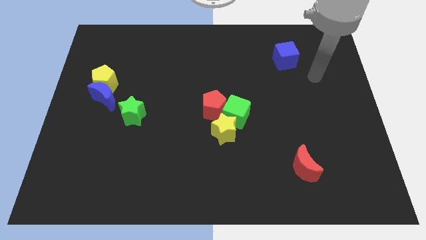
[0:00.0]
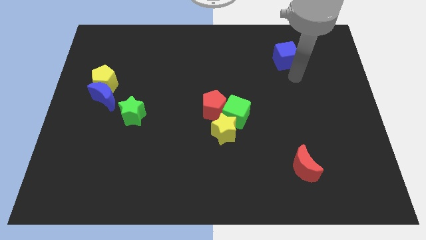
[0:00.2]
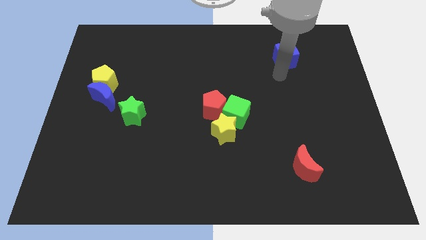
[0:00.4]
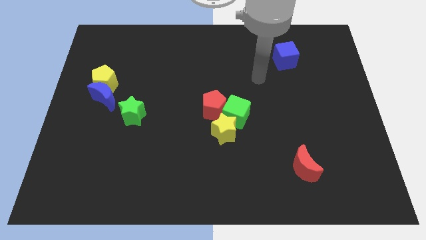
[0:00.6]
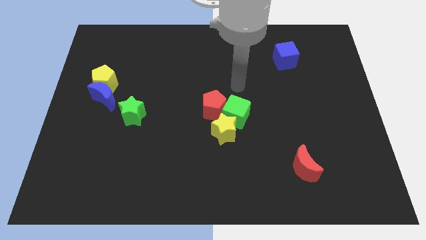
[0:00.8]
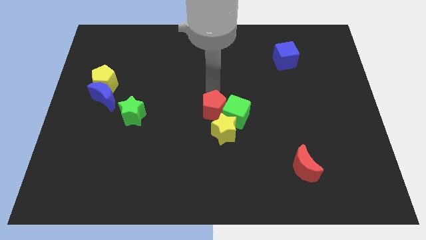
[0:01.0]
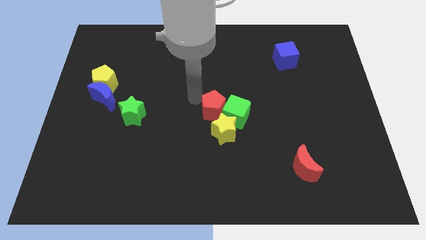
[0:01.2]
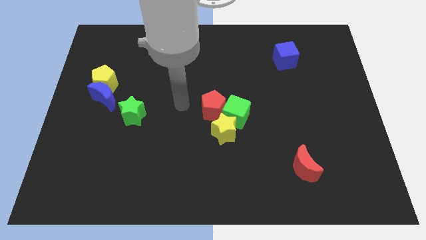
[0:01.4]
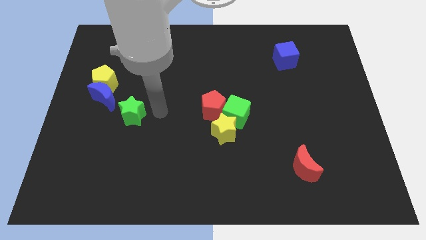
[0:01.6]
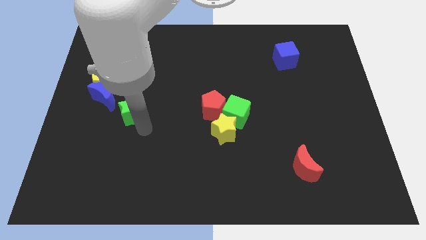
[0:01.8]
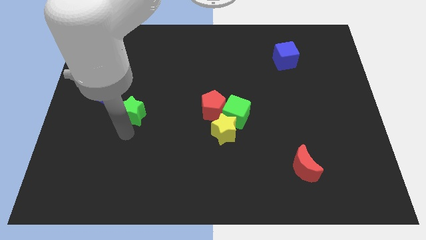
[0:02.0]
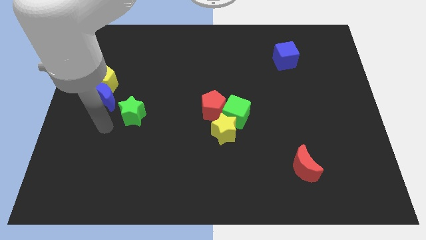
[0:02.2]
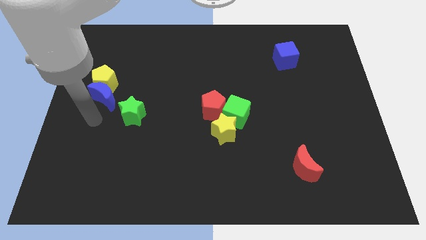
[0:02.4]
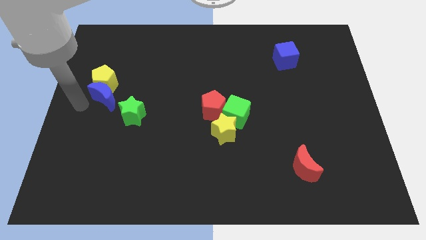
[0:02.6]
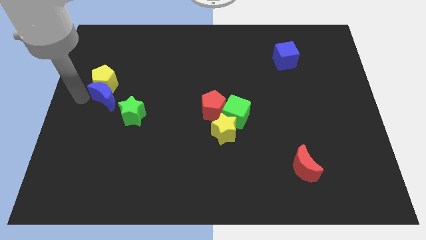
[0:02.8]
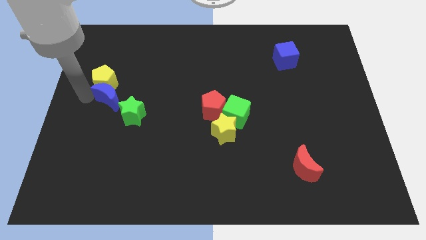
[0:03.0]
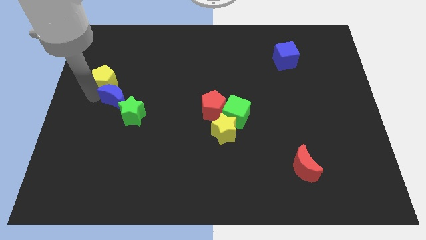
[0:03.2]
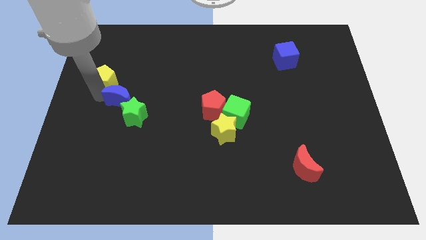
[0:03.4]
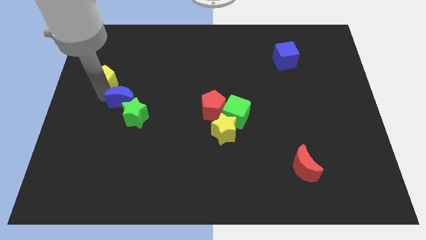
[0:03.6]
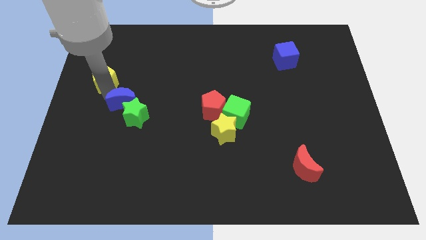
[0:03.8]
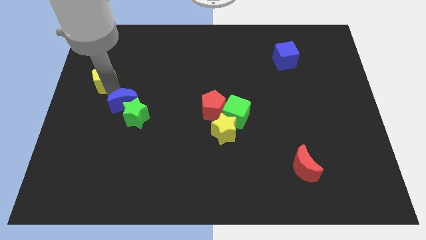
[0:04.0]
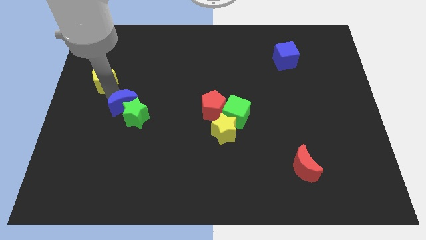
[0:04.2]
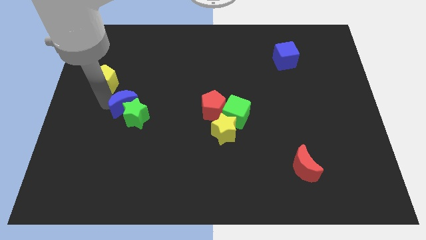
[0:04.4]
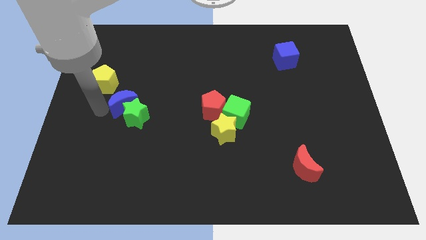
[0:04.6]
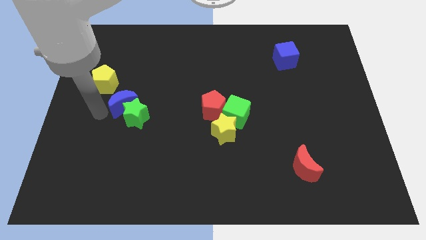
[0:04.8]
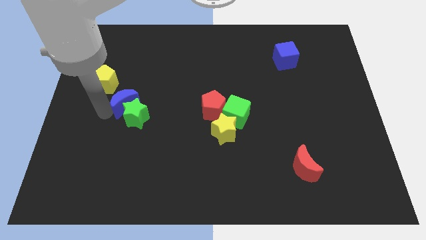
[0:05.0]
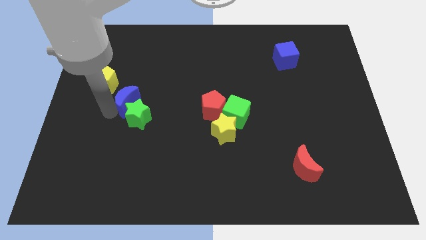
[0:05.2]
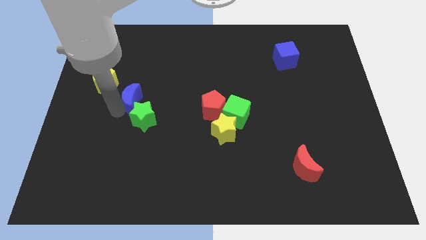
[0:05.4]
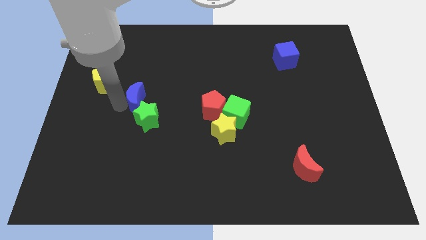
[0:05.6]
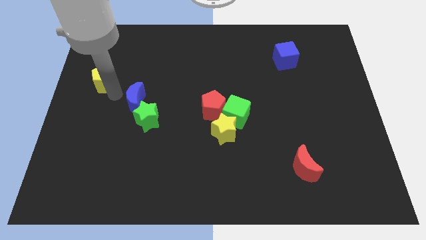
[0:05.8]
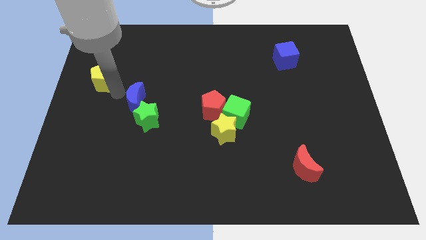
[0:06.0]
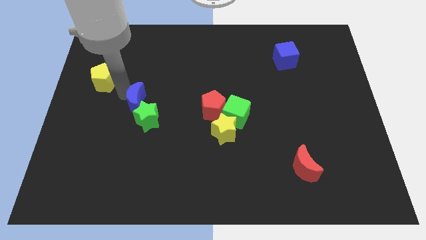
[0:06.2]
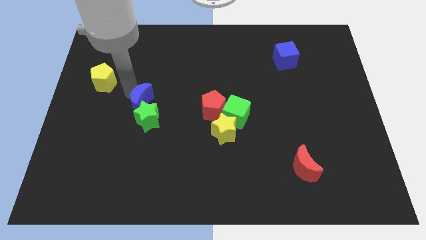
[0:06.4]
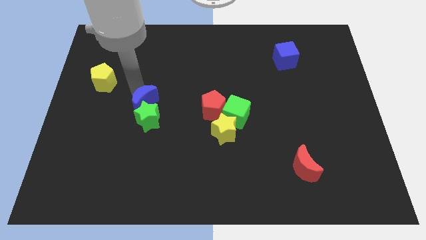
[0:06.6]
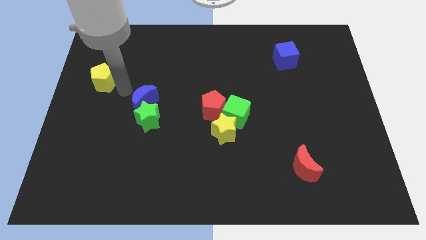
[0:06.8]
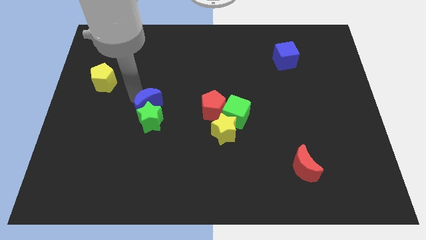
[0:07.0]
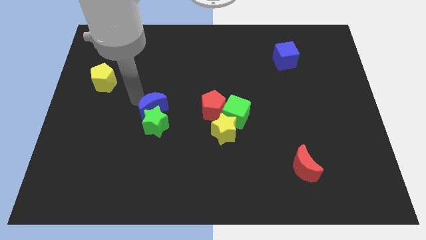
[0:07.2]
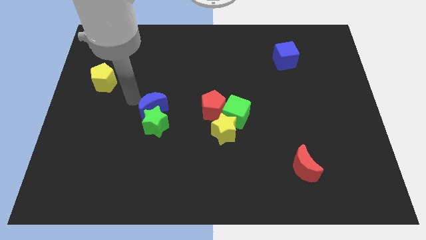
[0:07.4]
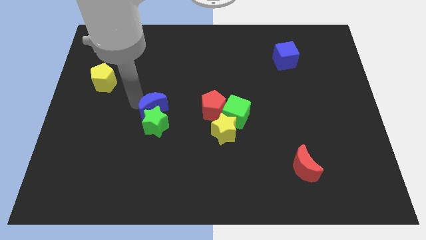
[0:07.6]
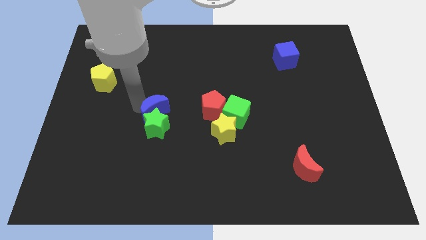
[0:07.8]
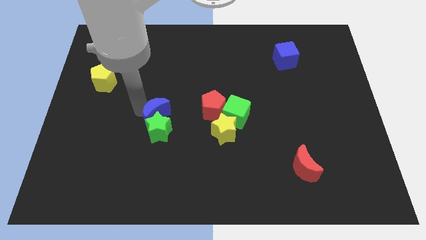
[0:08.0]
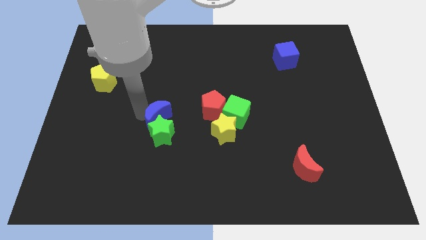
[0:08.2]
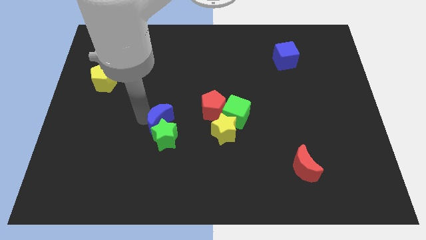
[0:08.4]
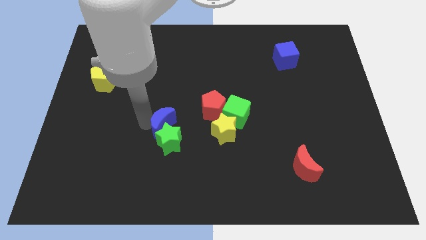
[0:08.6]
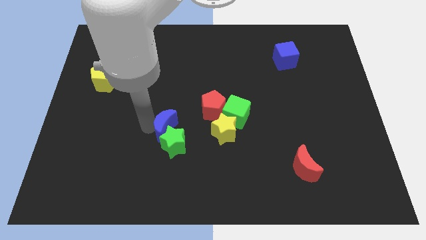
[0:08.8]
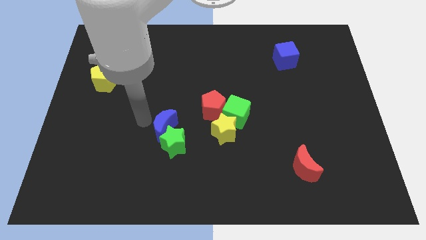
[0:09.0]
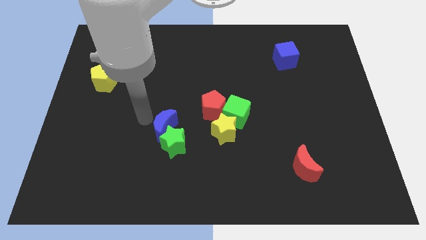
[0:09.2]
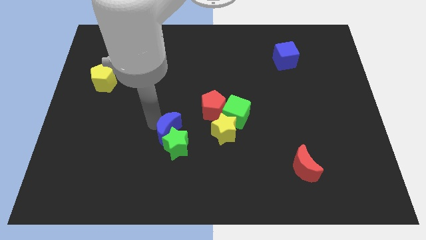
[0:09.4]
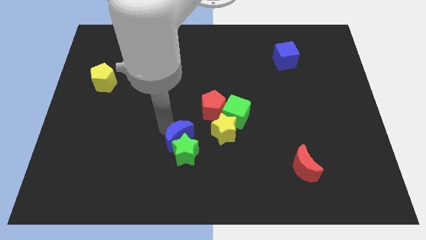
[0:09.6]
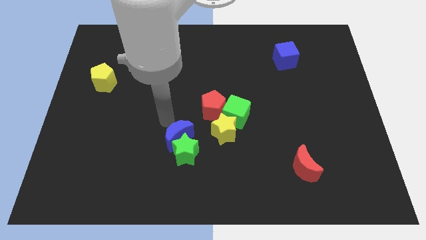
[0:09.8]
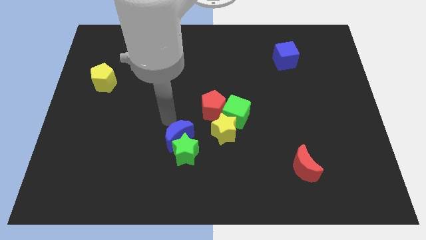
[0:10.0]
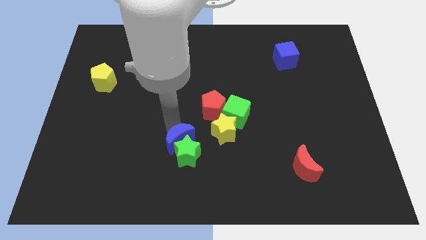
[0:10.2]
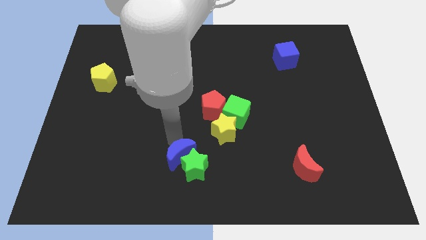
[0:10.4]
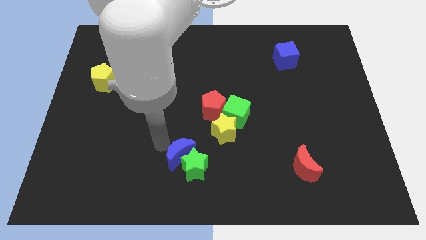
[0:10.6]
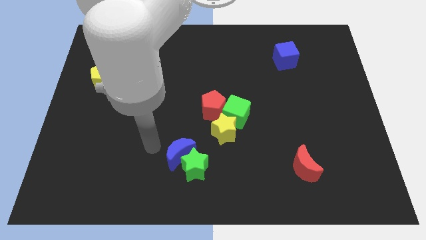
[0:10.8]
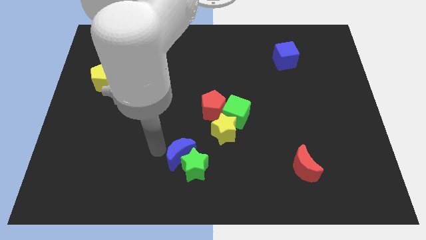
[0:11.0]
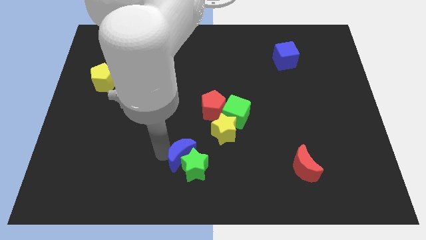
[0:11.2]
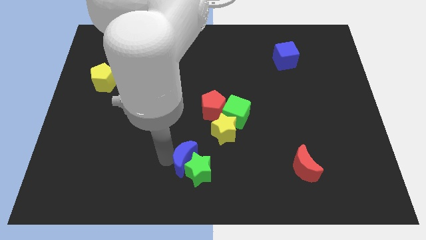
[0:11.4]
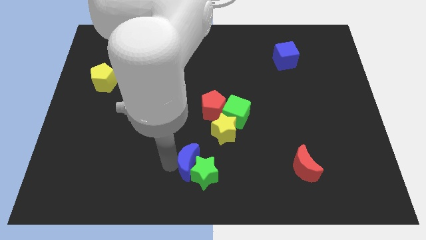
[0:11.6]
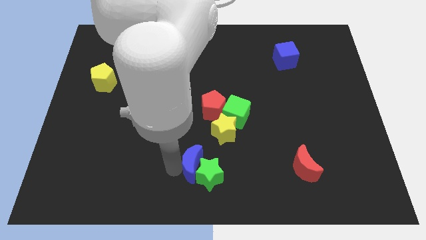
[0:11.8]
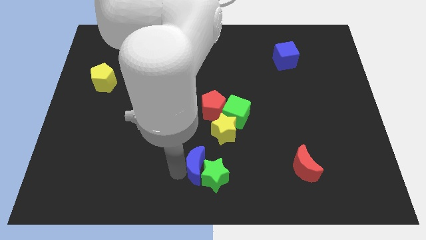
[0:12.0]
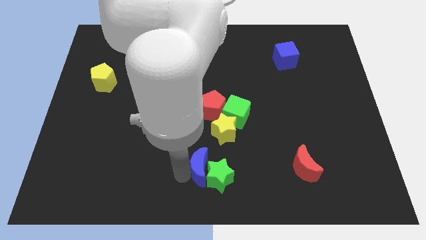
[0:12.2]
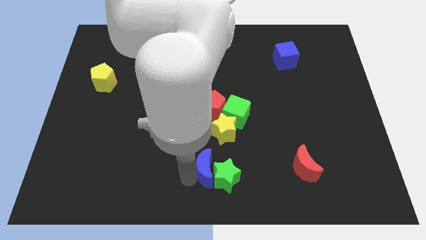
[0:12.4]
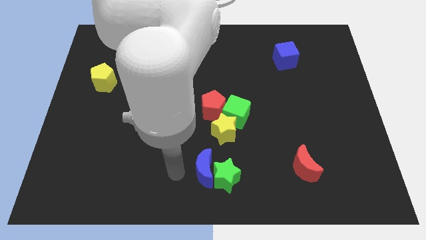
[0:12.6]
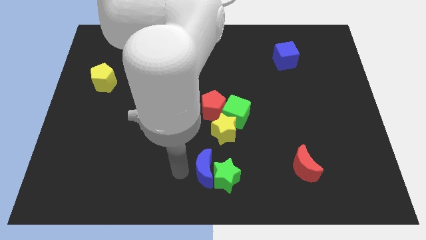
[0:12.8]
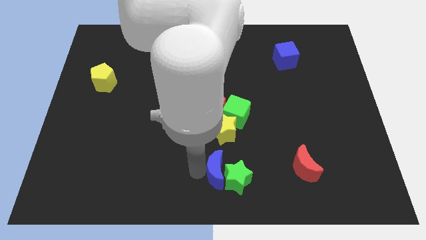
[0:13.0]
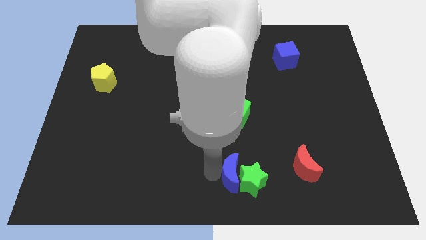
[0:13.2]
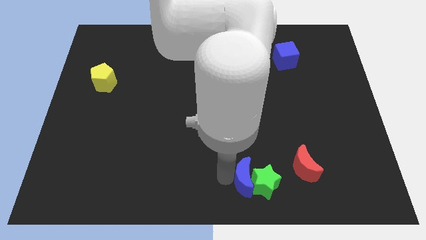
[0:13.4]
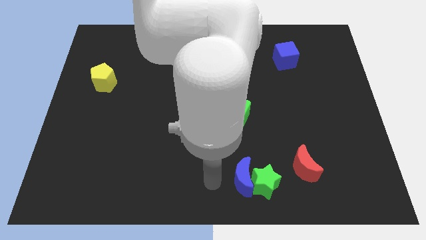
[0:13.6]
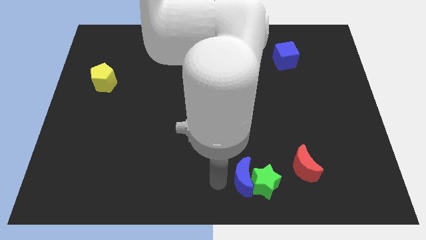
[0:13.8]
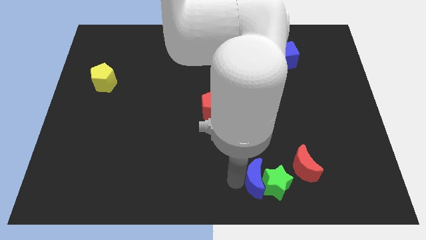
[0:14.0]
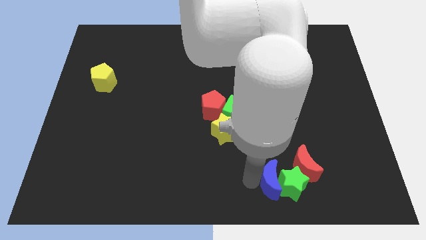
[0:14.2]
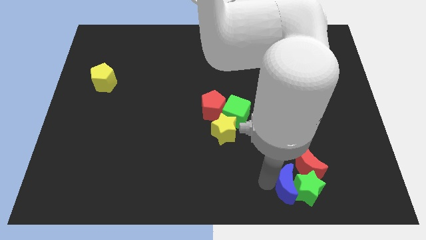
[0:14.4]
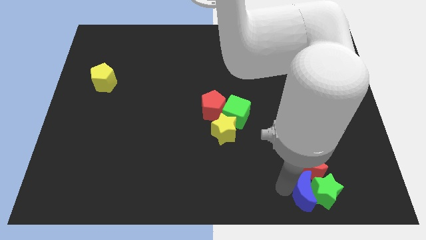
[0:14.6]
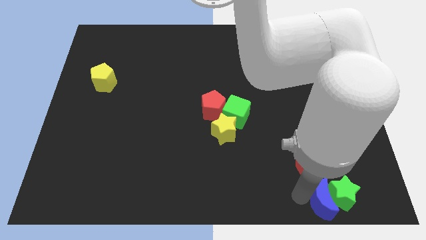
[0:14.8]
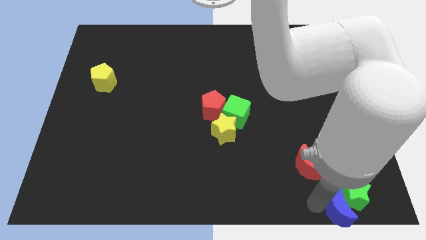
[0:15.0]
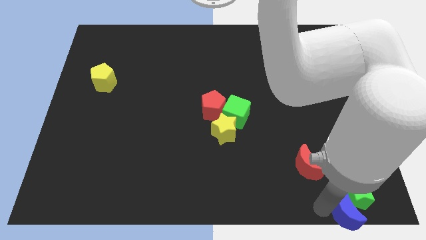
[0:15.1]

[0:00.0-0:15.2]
move the blue moon to the lower right corner
